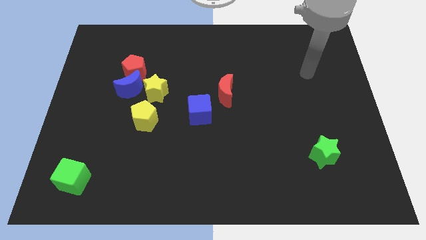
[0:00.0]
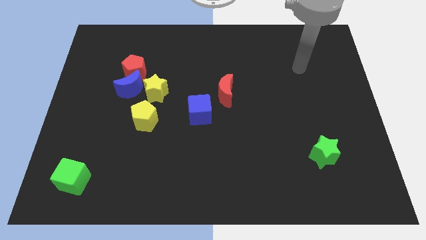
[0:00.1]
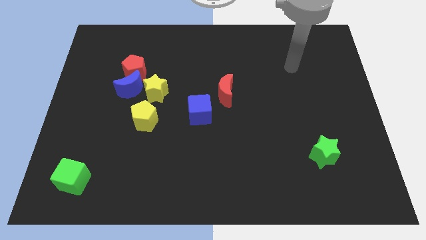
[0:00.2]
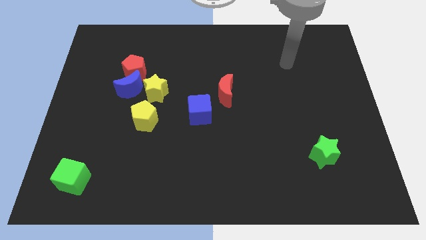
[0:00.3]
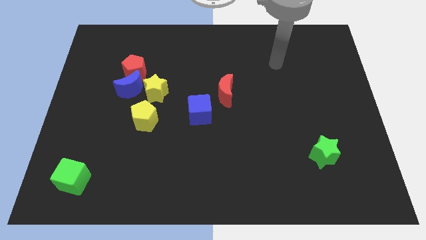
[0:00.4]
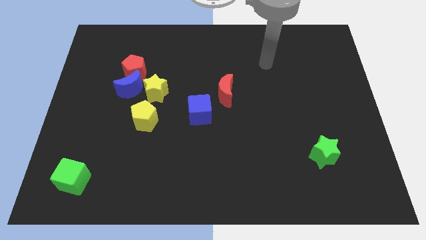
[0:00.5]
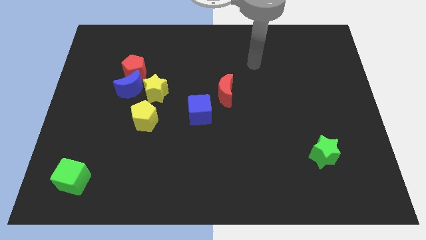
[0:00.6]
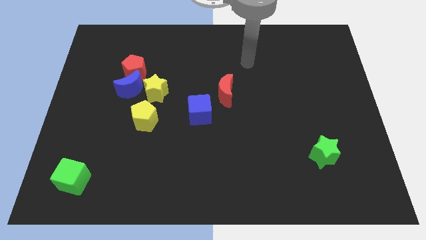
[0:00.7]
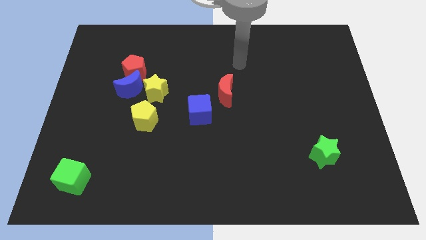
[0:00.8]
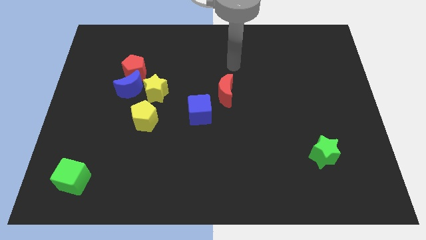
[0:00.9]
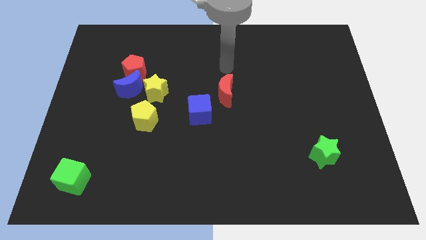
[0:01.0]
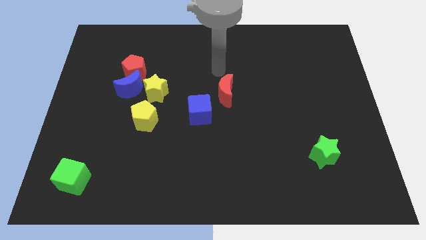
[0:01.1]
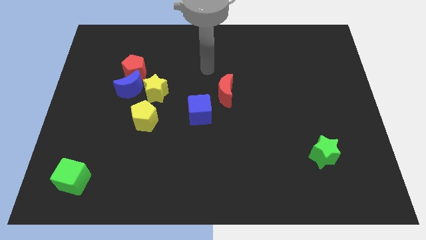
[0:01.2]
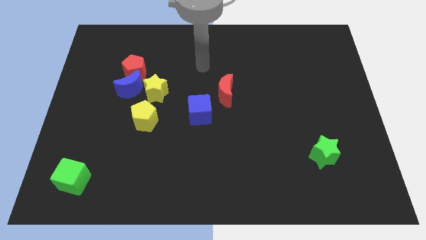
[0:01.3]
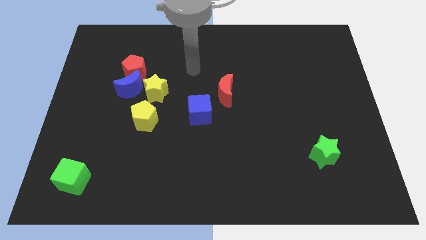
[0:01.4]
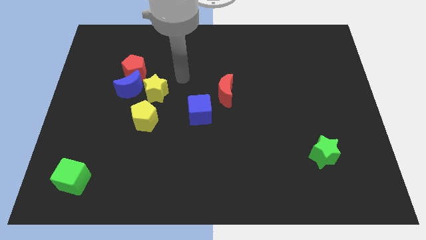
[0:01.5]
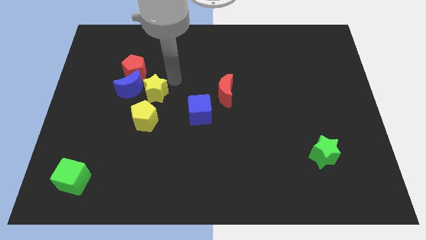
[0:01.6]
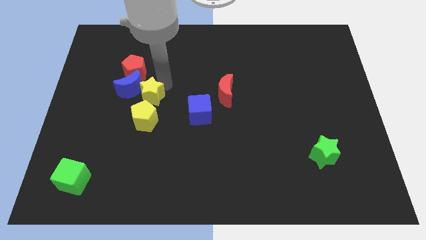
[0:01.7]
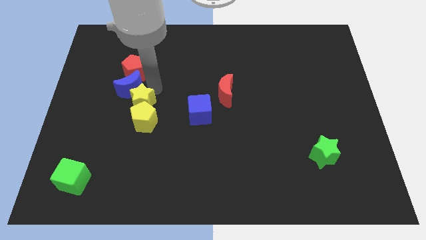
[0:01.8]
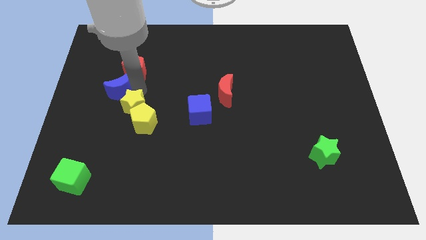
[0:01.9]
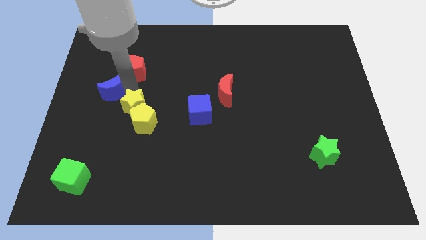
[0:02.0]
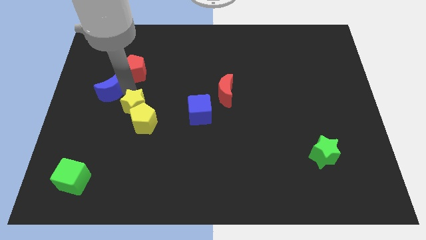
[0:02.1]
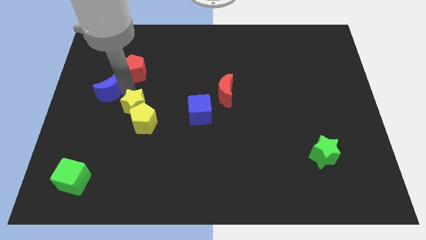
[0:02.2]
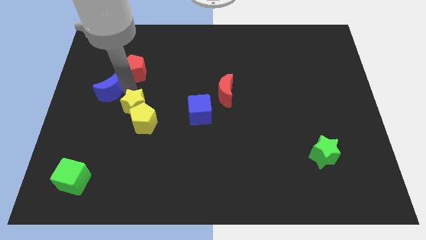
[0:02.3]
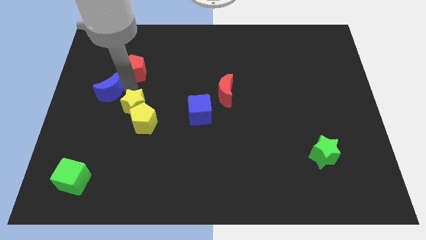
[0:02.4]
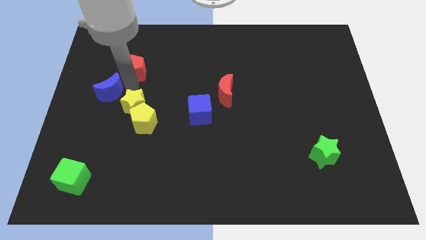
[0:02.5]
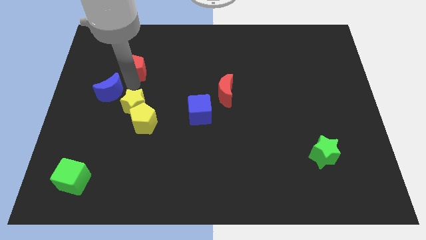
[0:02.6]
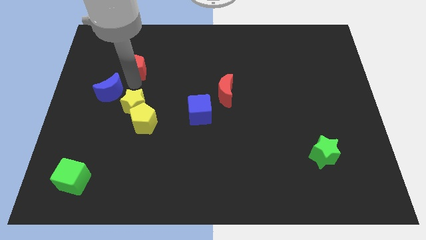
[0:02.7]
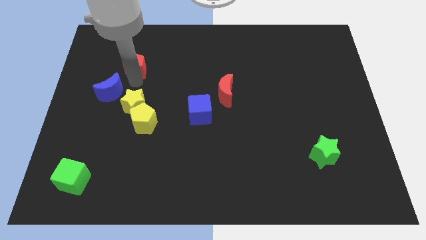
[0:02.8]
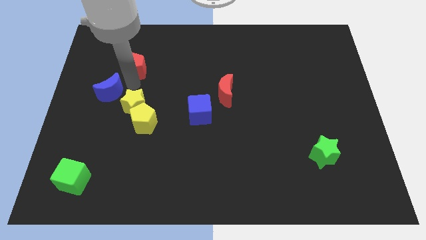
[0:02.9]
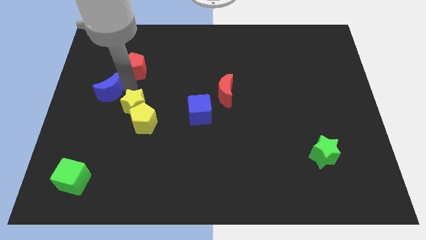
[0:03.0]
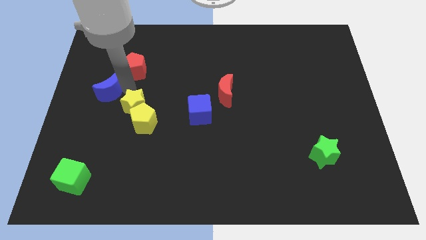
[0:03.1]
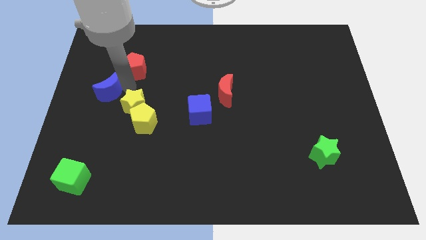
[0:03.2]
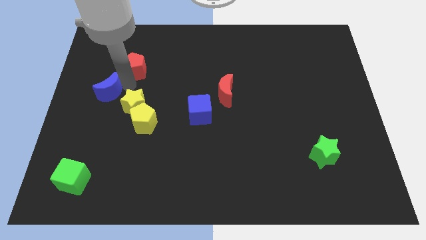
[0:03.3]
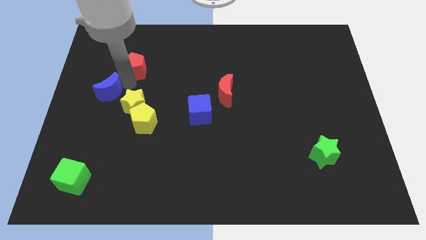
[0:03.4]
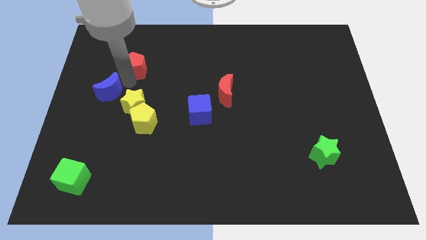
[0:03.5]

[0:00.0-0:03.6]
separate the red pentagon from the blue moon and yellow star

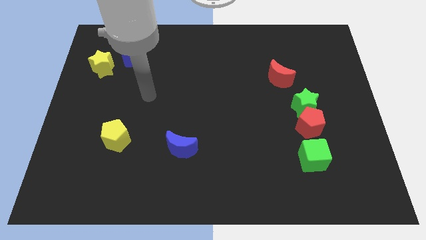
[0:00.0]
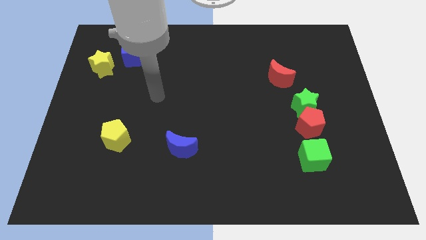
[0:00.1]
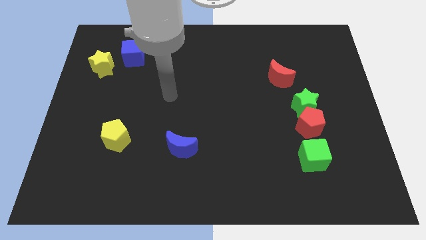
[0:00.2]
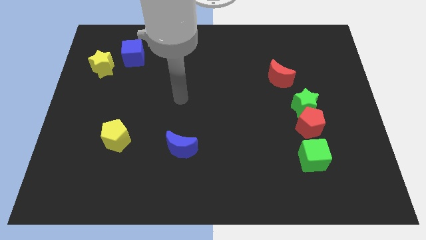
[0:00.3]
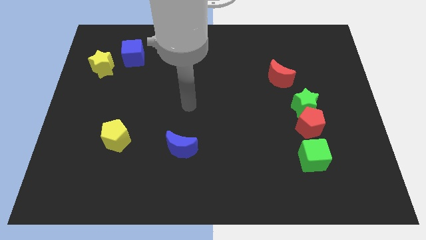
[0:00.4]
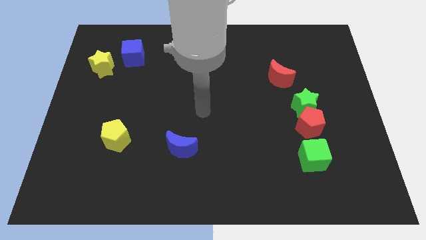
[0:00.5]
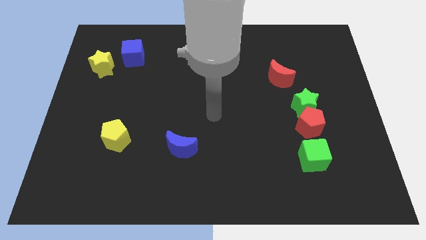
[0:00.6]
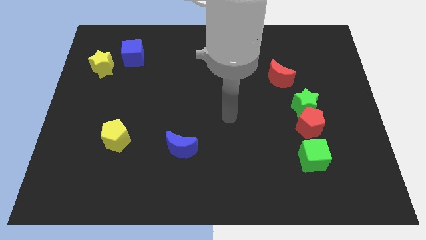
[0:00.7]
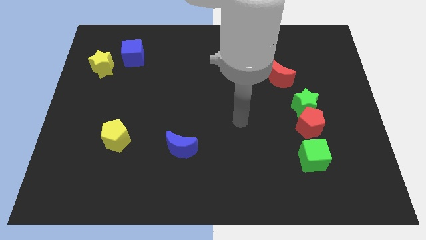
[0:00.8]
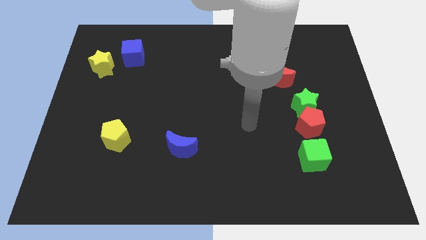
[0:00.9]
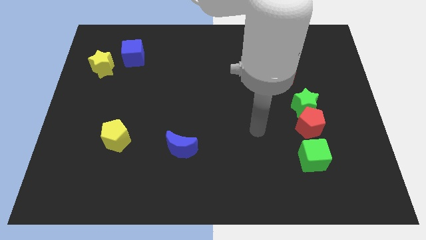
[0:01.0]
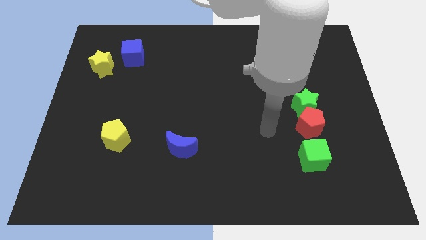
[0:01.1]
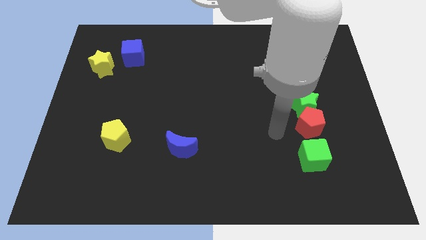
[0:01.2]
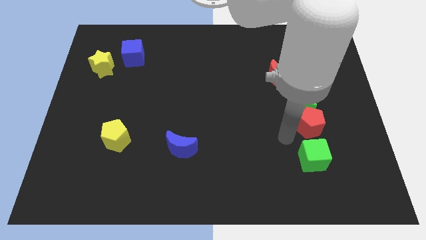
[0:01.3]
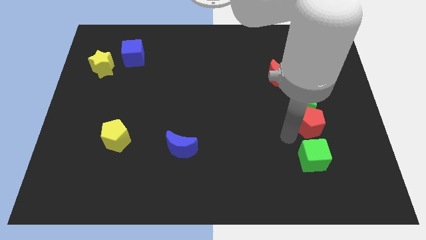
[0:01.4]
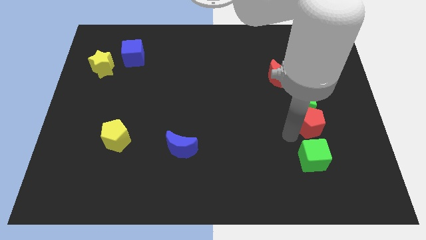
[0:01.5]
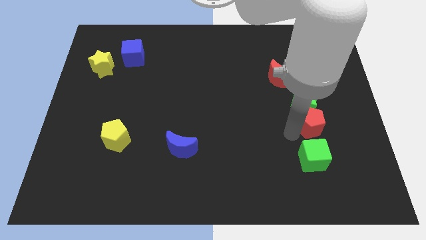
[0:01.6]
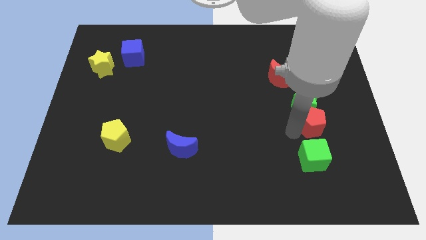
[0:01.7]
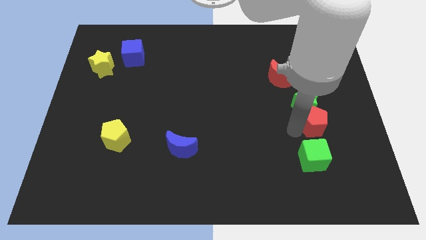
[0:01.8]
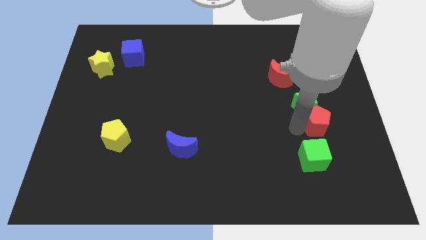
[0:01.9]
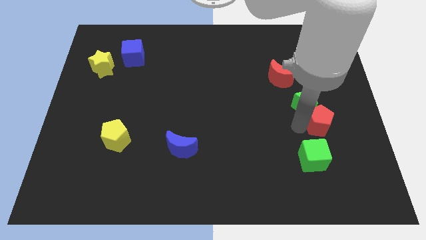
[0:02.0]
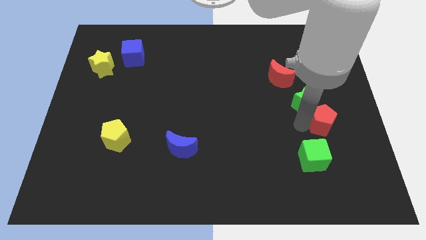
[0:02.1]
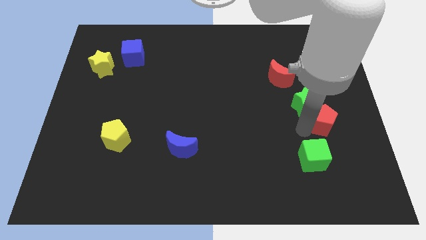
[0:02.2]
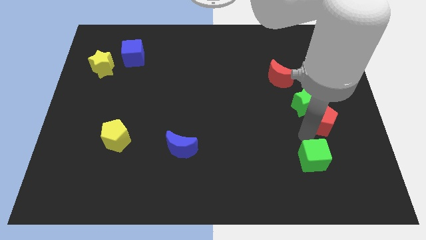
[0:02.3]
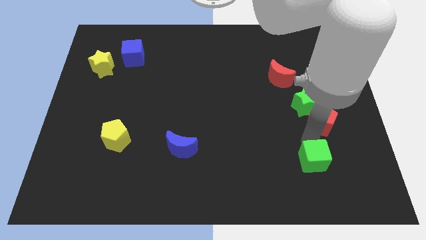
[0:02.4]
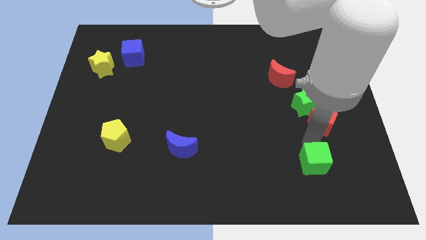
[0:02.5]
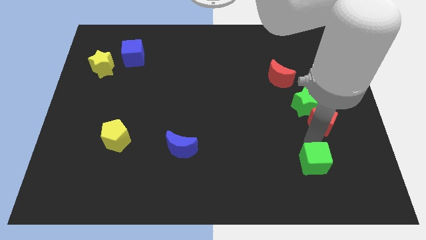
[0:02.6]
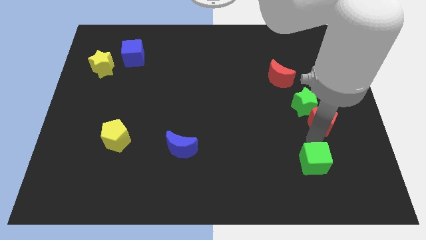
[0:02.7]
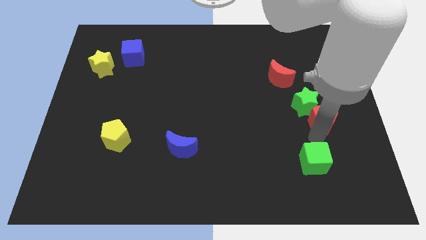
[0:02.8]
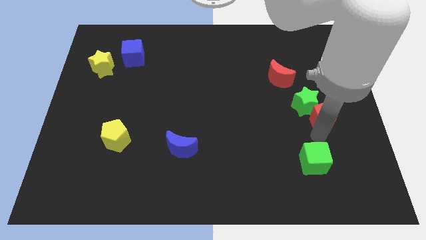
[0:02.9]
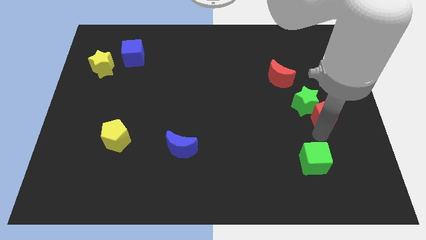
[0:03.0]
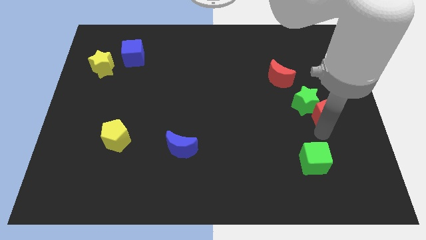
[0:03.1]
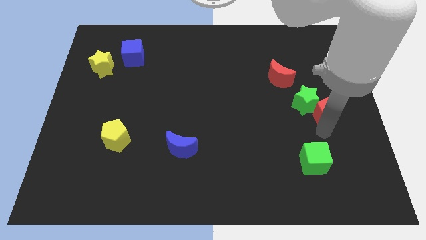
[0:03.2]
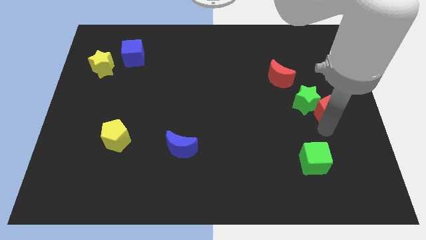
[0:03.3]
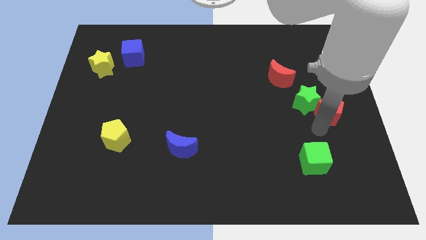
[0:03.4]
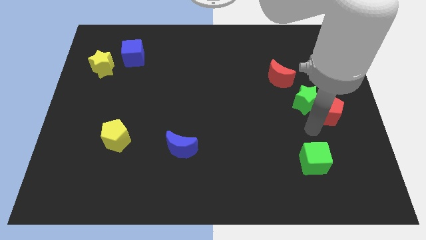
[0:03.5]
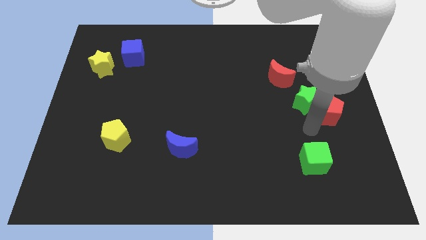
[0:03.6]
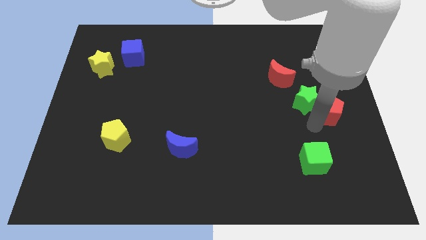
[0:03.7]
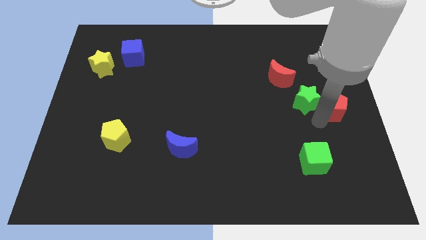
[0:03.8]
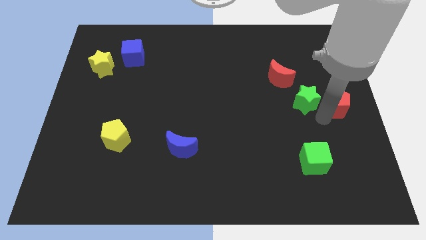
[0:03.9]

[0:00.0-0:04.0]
pull the red pentagon apart from the green star and green cube

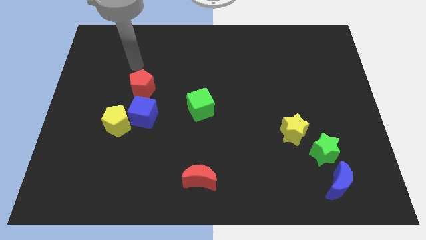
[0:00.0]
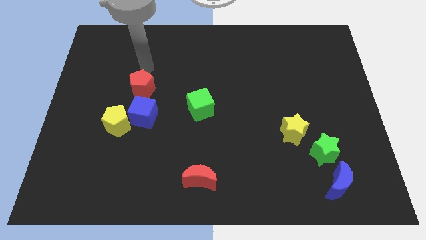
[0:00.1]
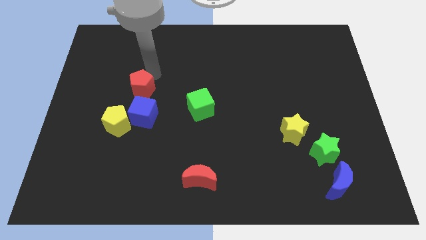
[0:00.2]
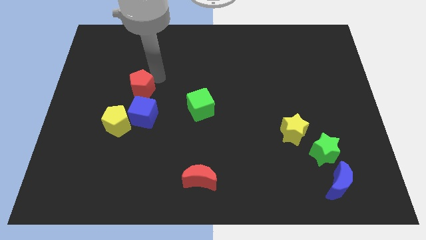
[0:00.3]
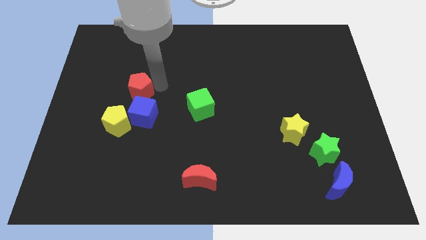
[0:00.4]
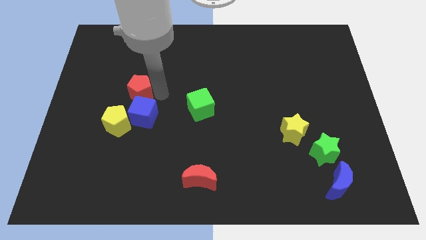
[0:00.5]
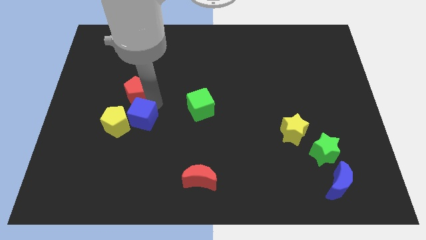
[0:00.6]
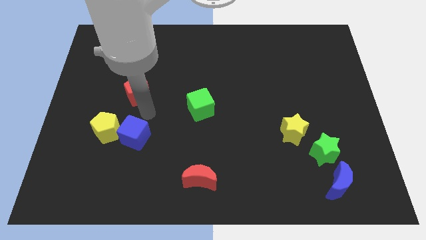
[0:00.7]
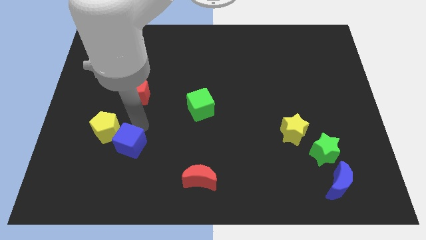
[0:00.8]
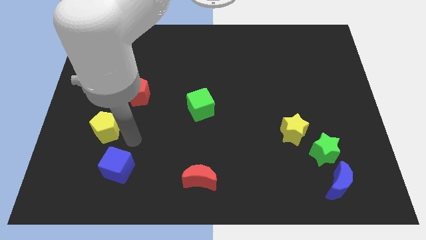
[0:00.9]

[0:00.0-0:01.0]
pull the yellow pentagon apart from the blue cube

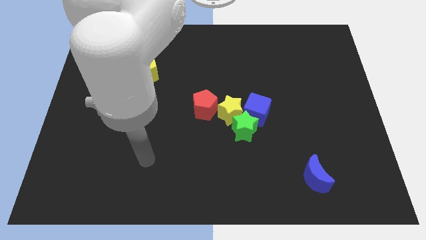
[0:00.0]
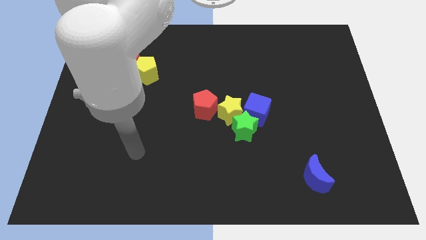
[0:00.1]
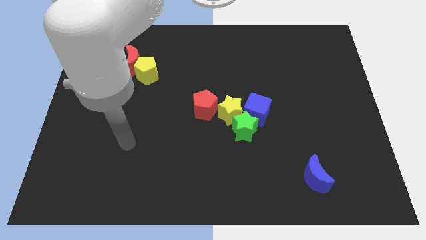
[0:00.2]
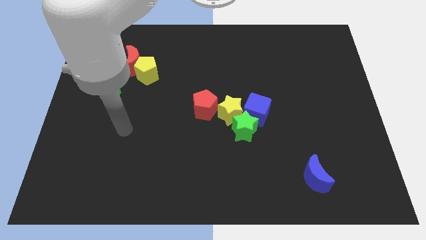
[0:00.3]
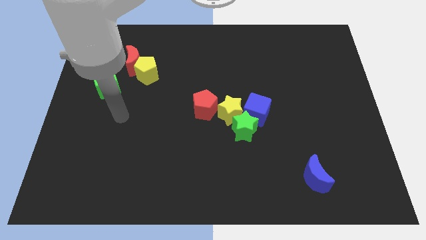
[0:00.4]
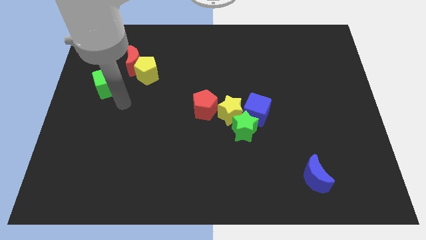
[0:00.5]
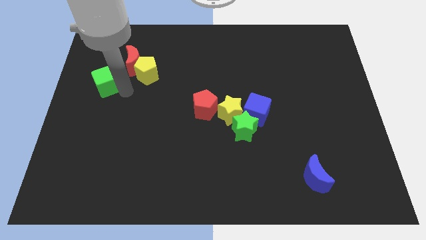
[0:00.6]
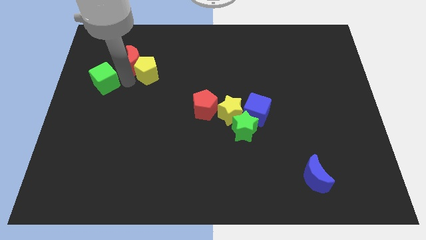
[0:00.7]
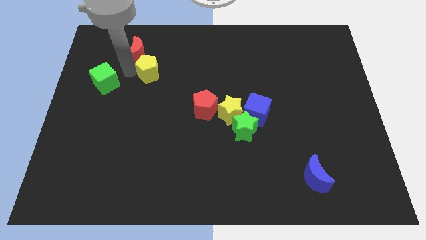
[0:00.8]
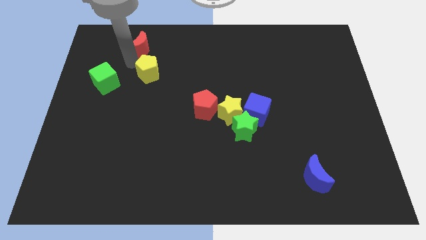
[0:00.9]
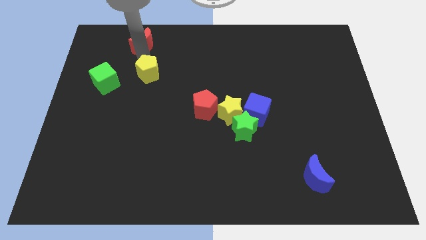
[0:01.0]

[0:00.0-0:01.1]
move the yellow pentagon away from the red moon
